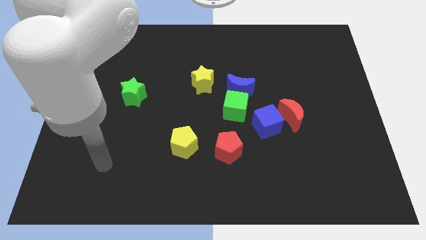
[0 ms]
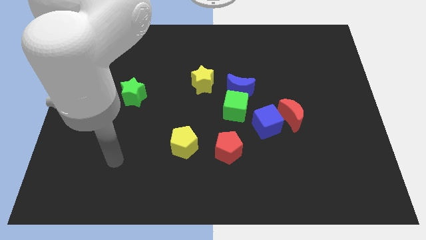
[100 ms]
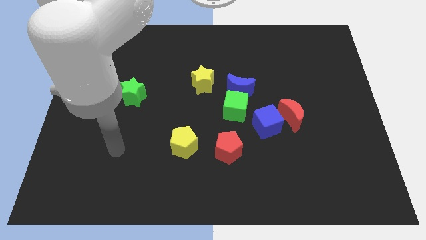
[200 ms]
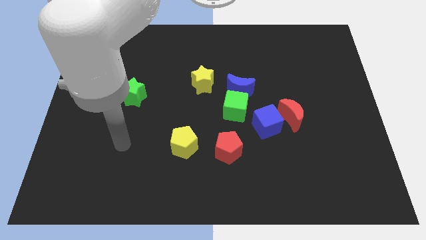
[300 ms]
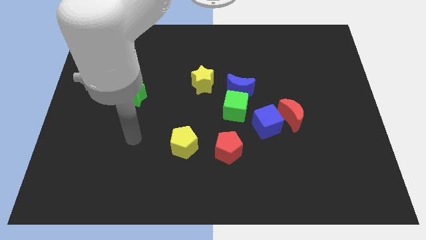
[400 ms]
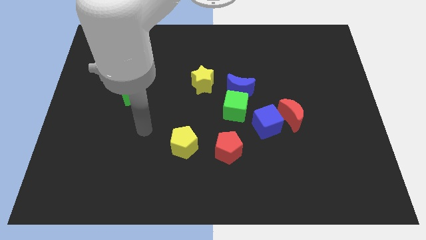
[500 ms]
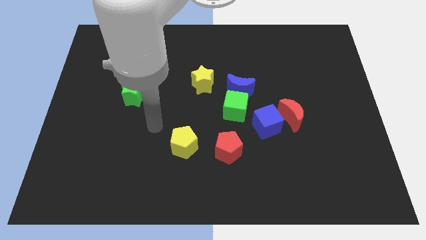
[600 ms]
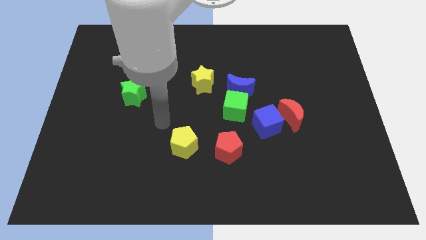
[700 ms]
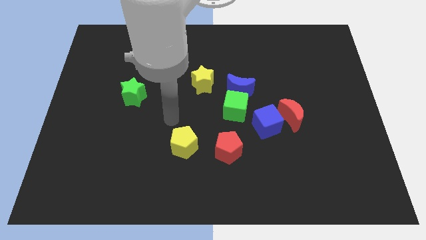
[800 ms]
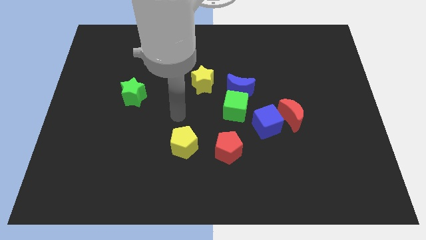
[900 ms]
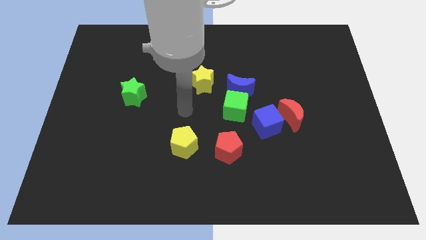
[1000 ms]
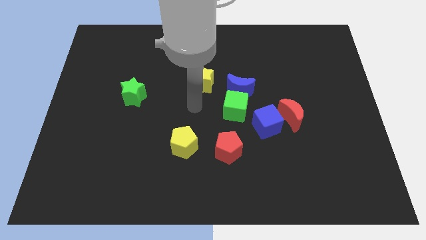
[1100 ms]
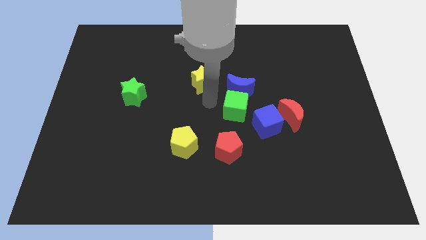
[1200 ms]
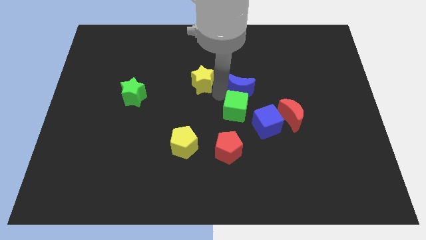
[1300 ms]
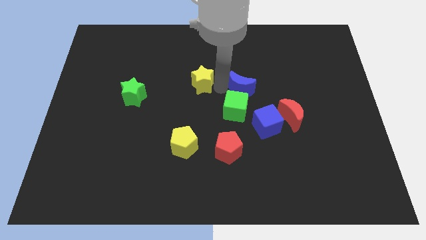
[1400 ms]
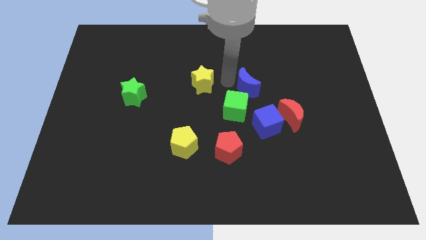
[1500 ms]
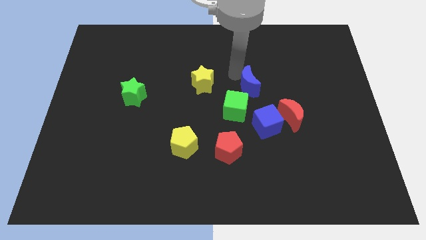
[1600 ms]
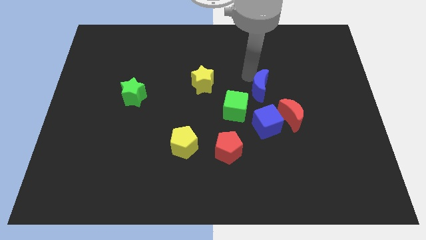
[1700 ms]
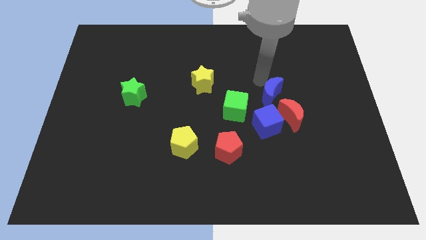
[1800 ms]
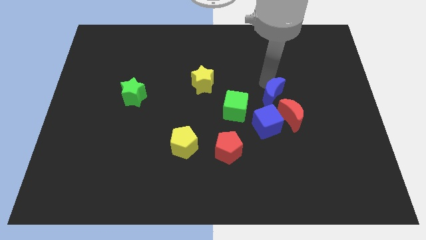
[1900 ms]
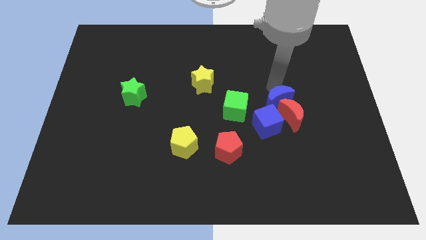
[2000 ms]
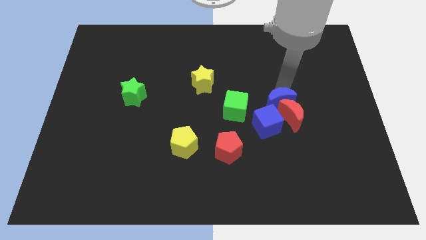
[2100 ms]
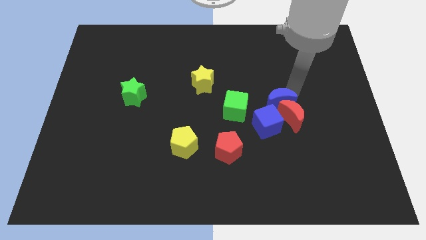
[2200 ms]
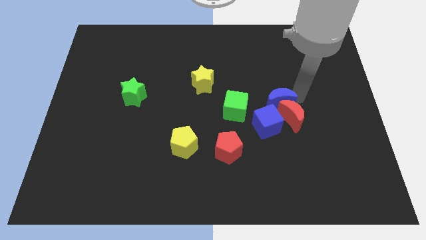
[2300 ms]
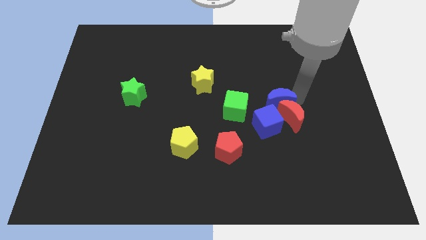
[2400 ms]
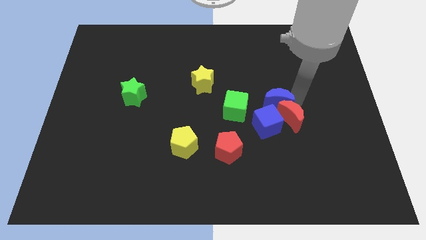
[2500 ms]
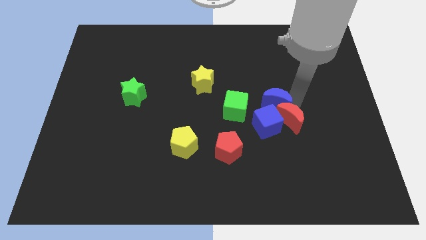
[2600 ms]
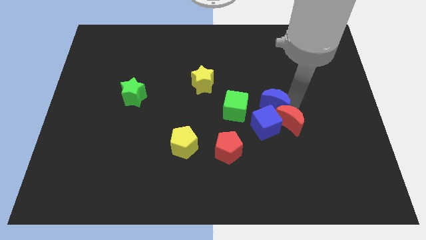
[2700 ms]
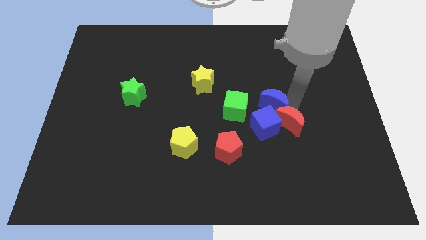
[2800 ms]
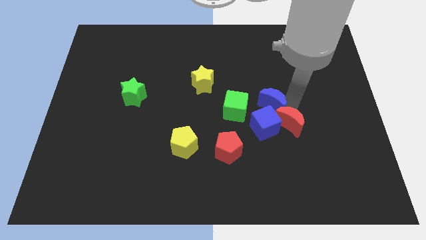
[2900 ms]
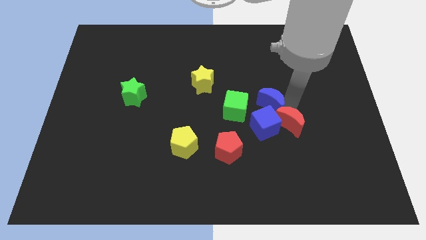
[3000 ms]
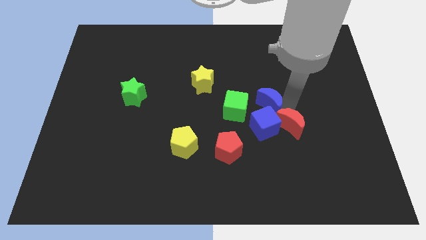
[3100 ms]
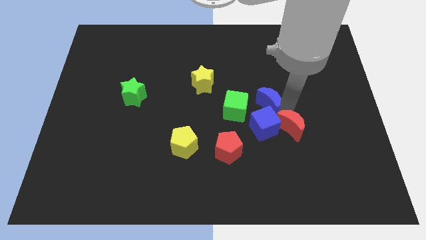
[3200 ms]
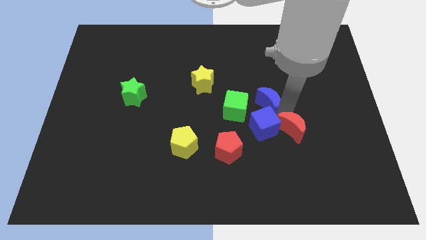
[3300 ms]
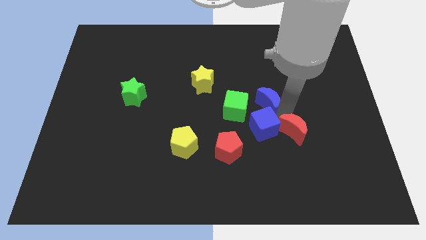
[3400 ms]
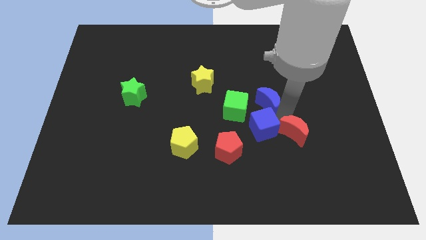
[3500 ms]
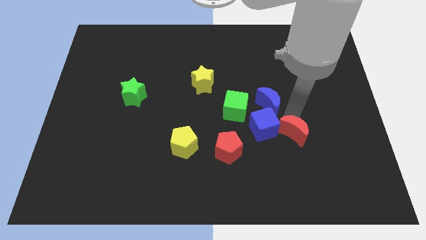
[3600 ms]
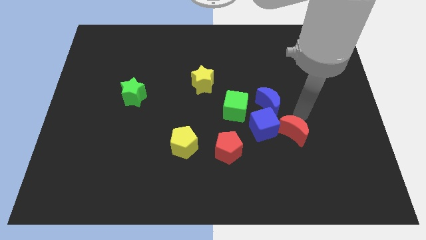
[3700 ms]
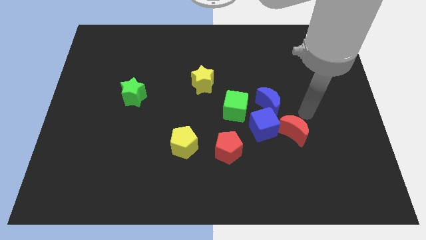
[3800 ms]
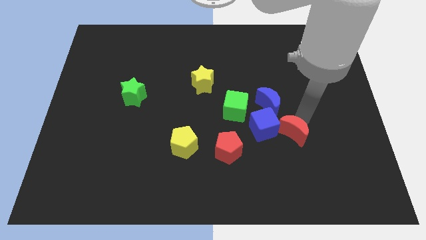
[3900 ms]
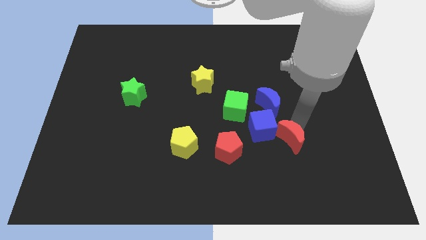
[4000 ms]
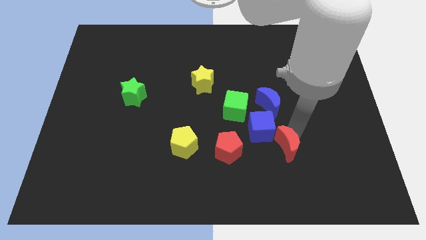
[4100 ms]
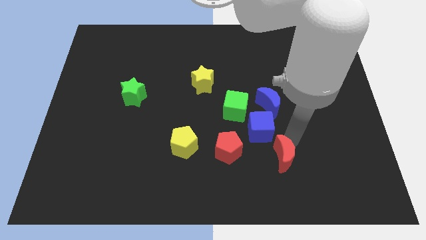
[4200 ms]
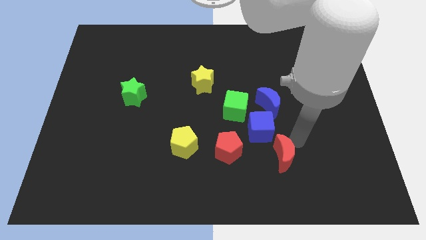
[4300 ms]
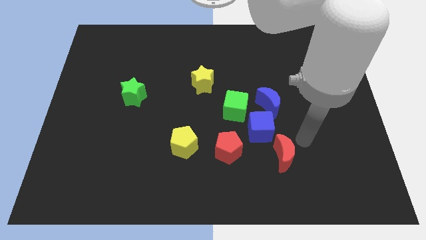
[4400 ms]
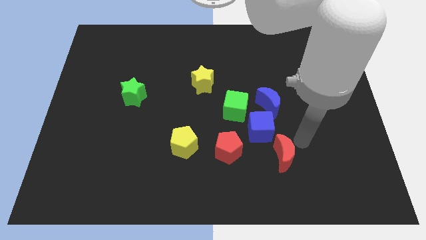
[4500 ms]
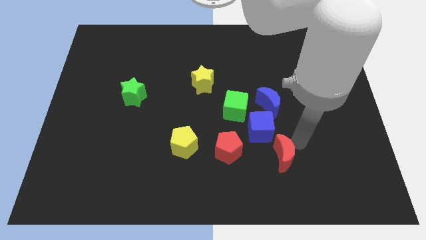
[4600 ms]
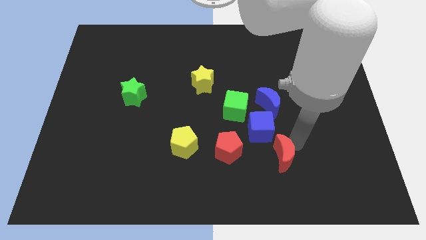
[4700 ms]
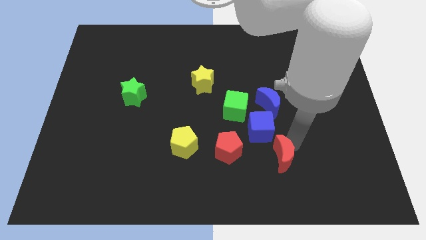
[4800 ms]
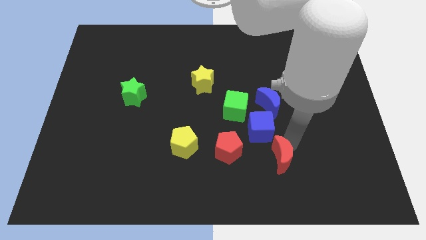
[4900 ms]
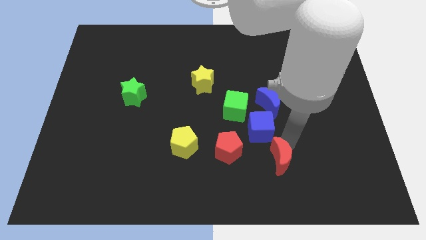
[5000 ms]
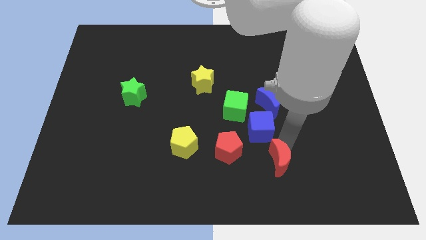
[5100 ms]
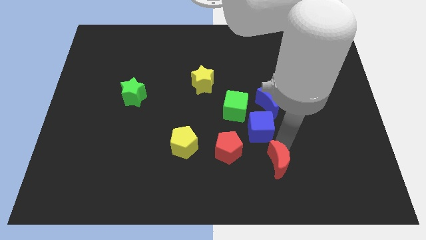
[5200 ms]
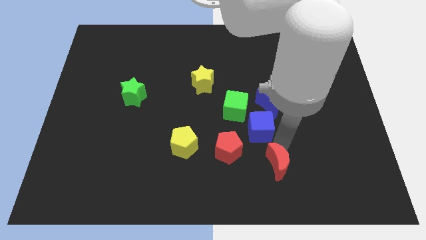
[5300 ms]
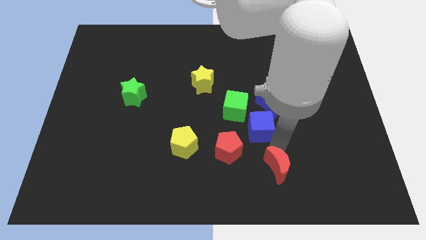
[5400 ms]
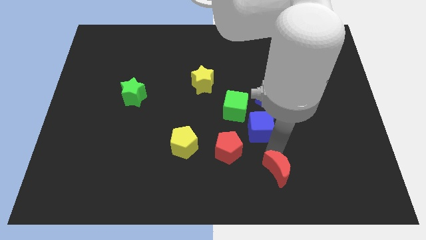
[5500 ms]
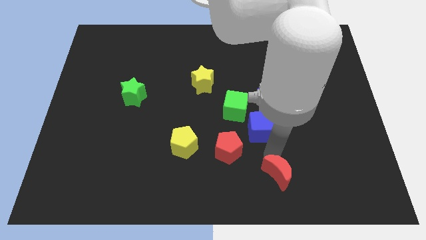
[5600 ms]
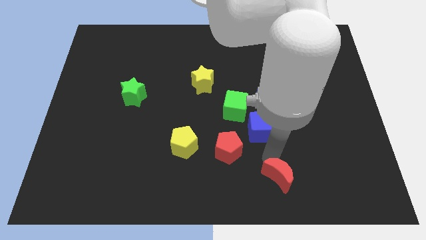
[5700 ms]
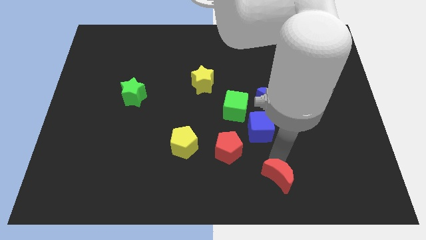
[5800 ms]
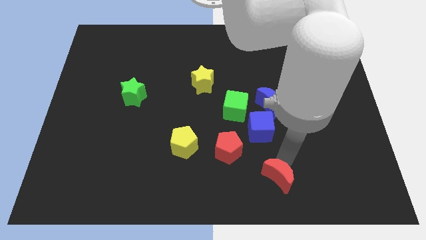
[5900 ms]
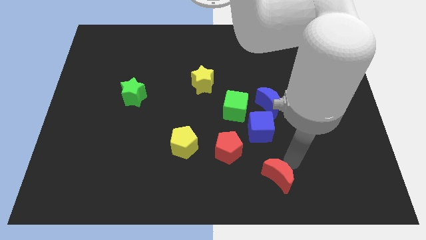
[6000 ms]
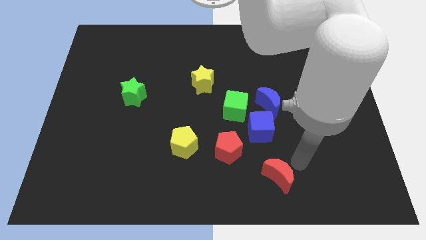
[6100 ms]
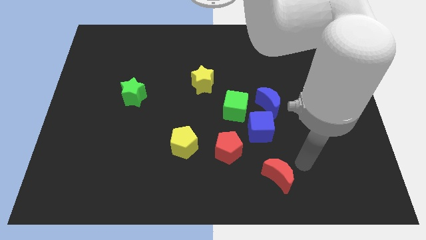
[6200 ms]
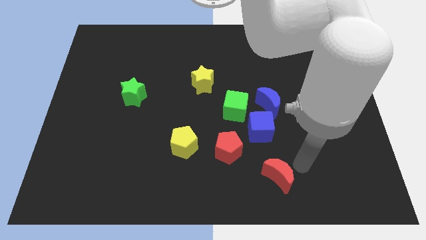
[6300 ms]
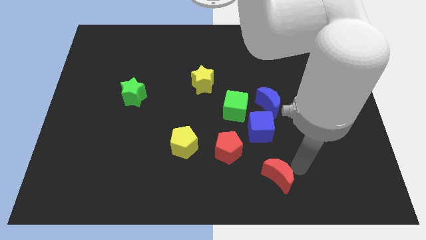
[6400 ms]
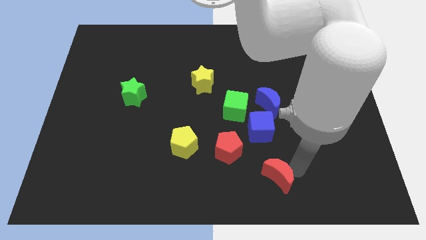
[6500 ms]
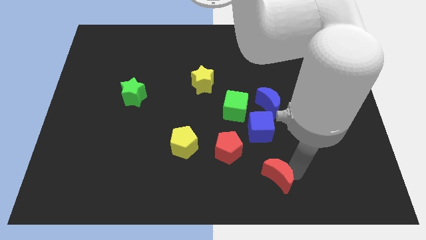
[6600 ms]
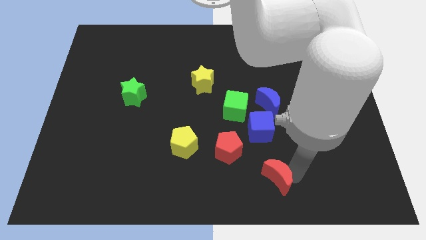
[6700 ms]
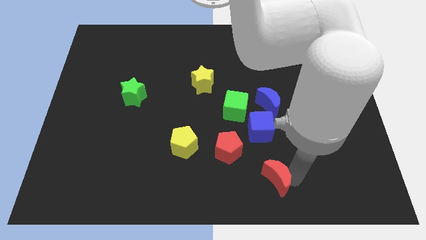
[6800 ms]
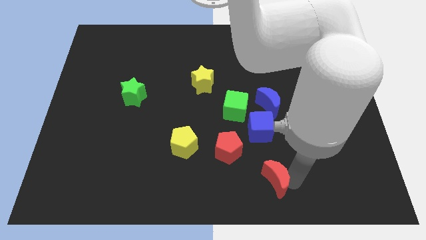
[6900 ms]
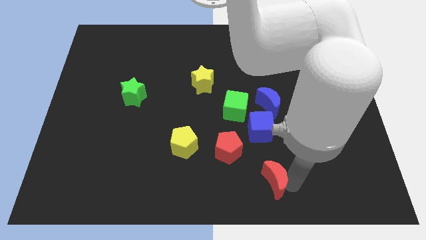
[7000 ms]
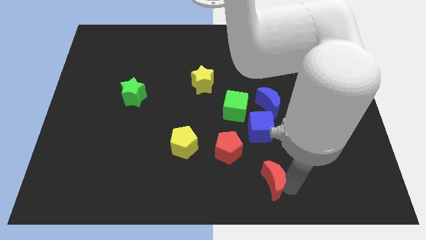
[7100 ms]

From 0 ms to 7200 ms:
move the red moon to the bottom side
